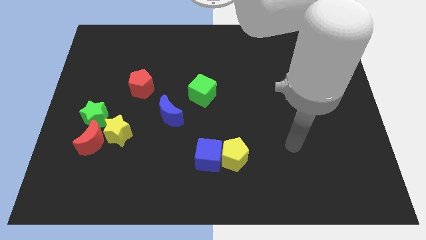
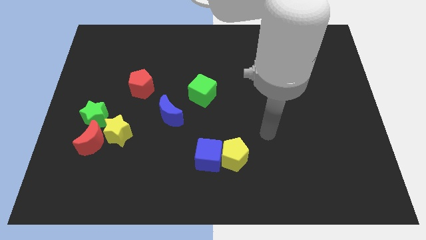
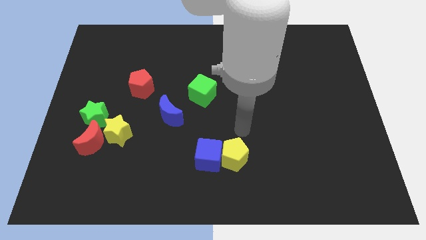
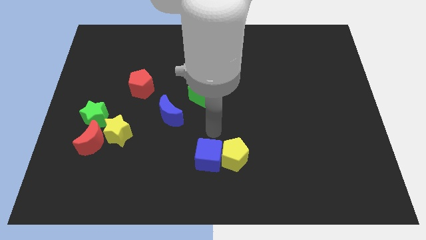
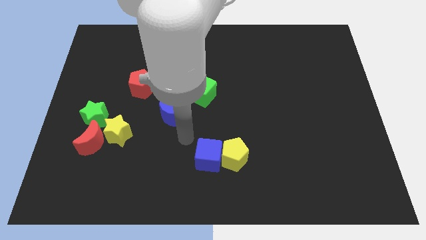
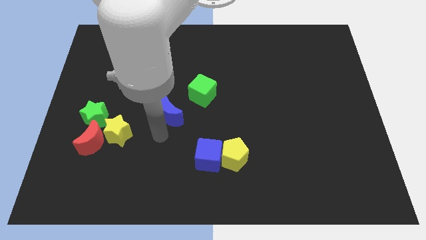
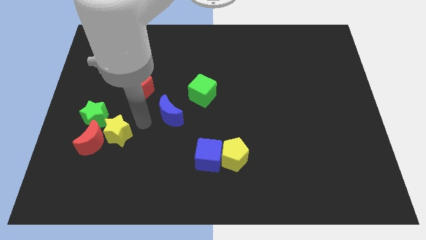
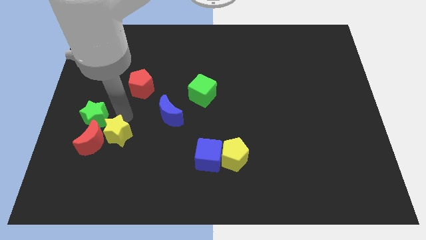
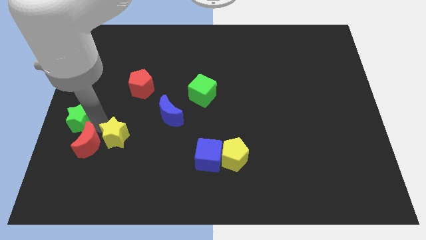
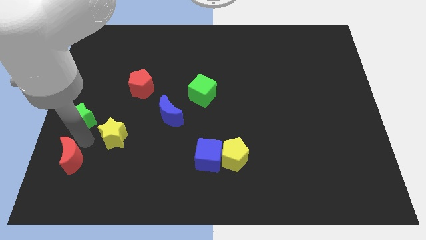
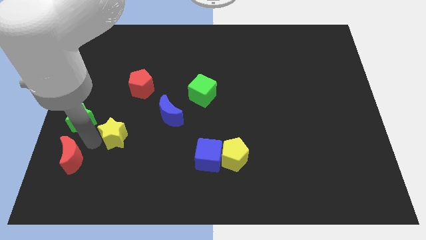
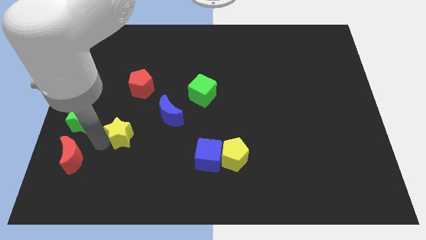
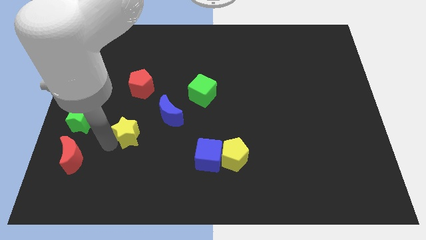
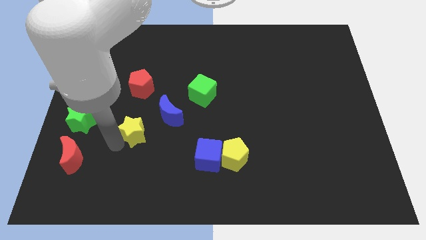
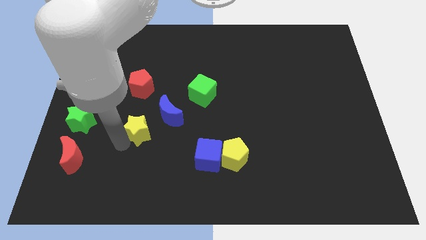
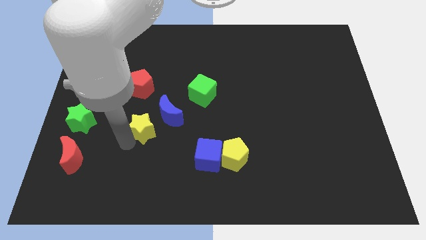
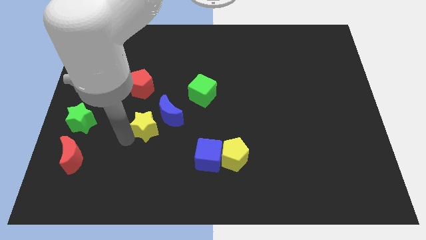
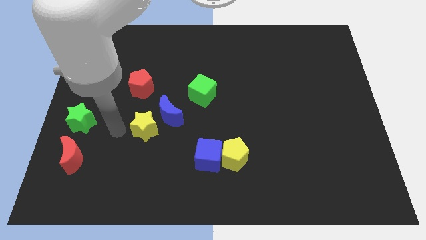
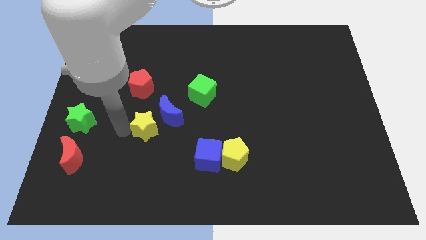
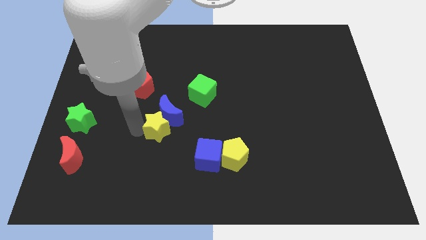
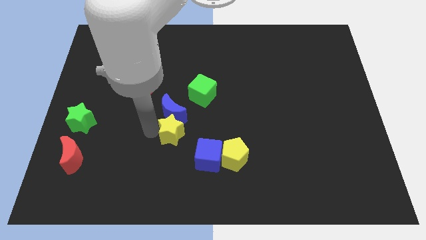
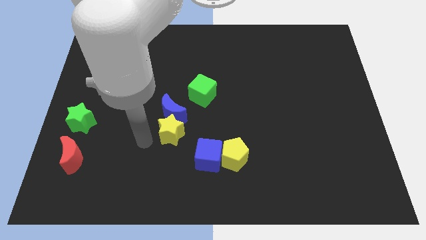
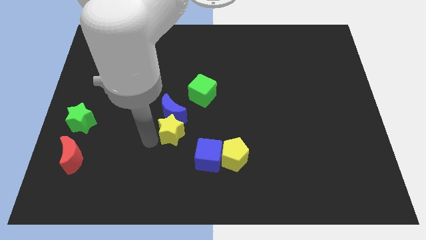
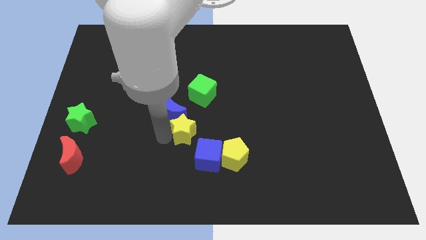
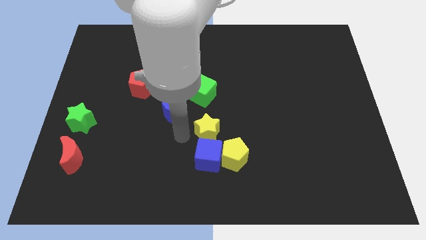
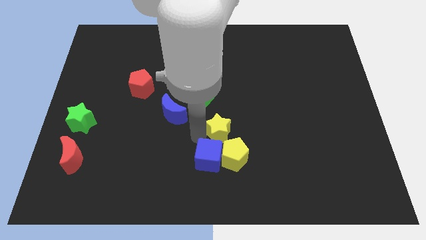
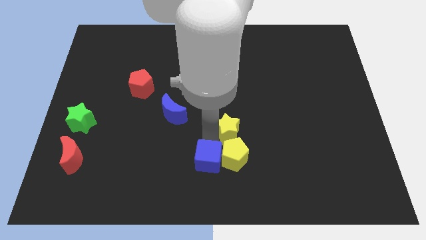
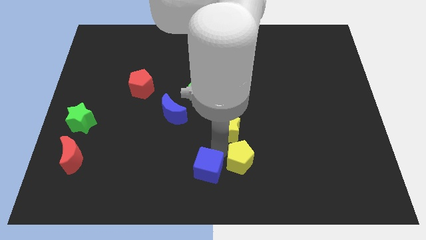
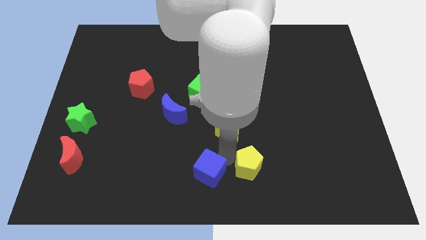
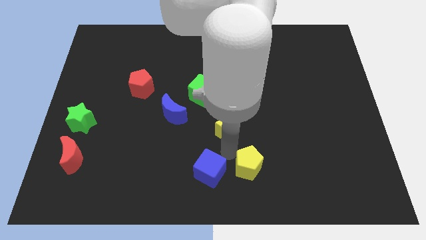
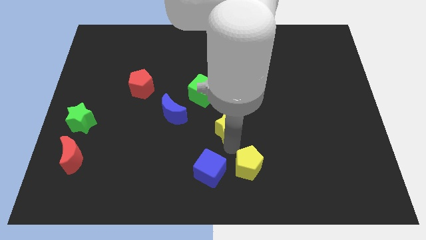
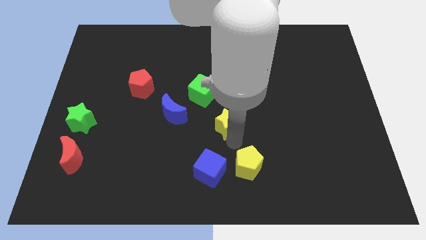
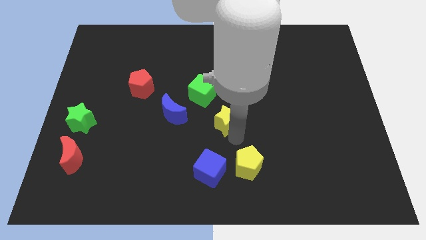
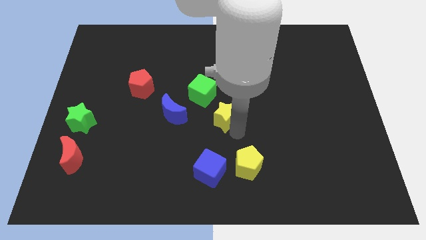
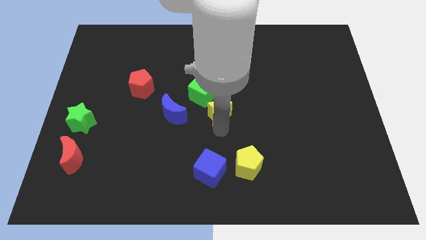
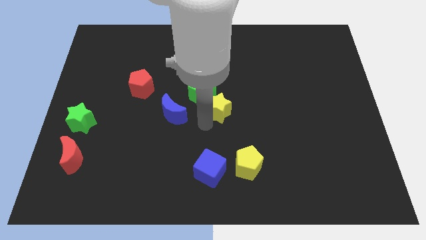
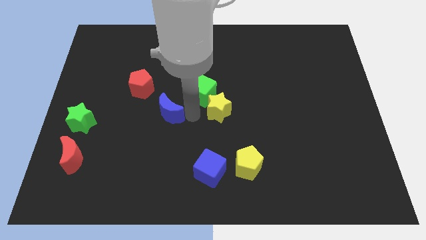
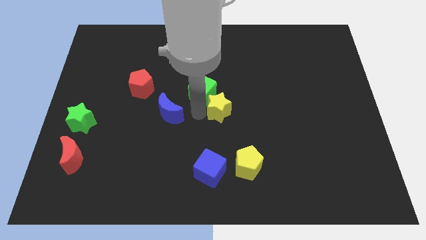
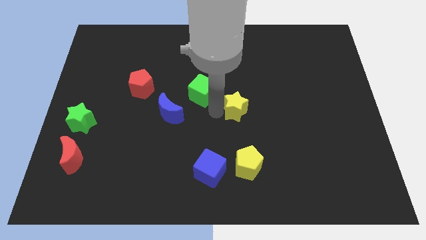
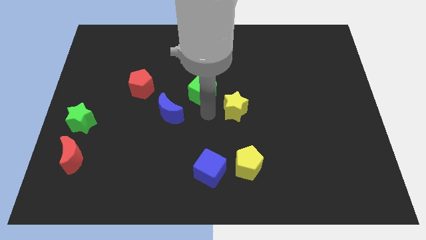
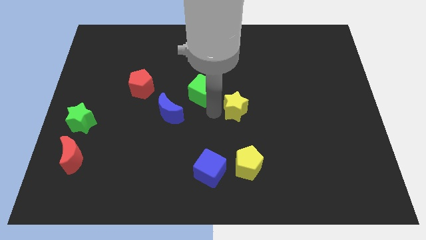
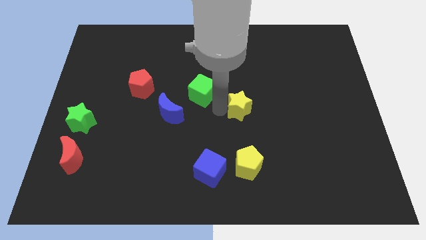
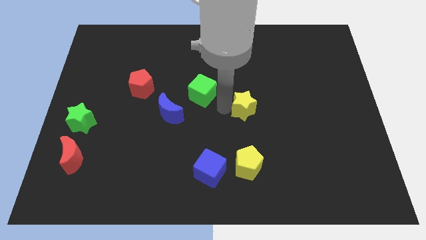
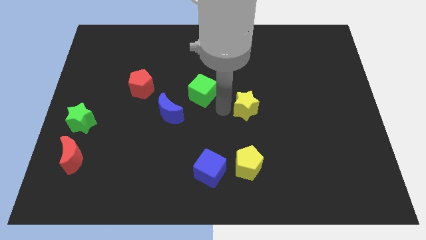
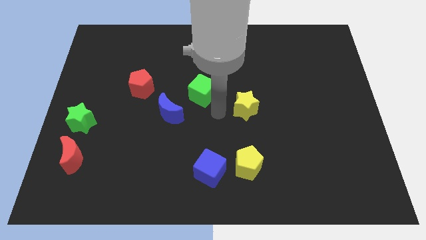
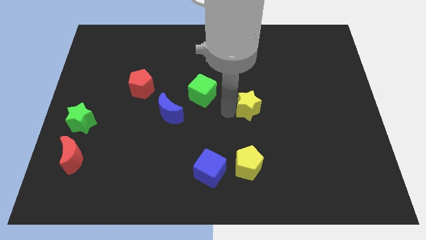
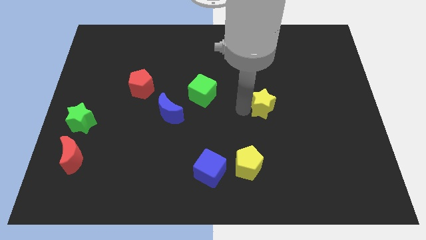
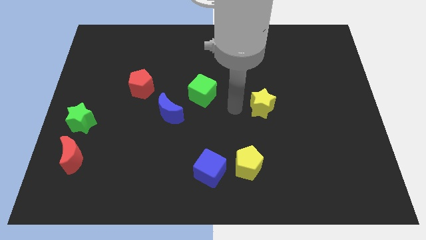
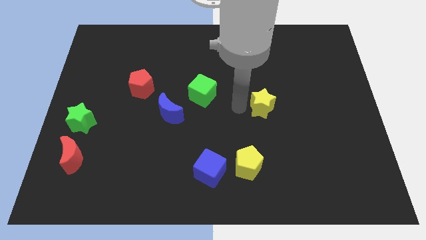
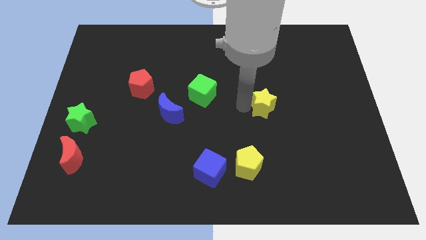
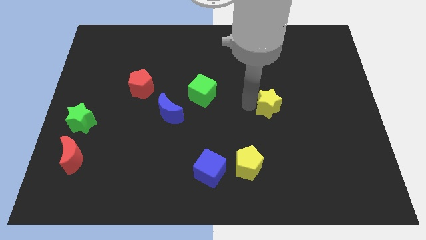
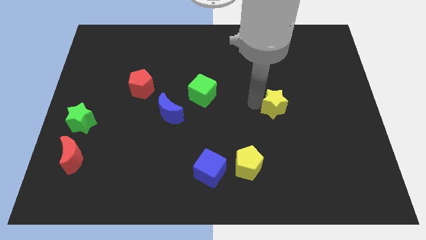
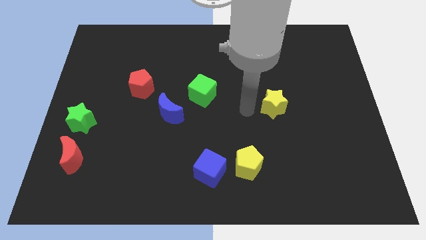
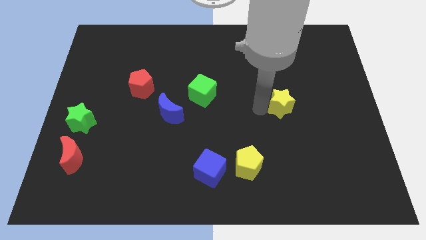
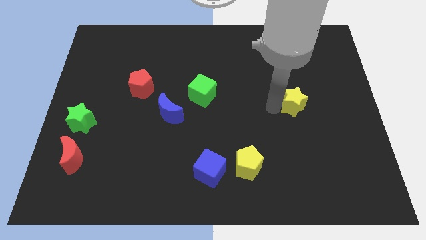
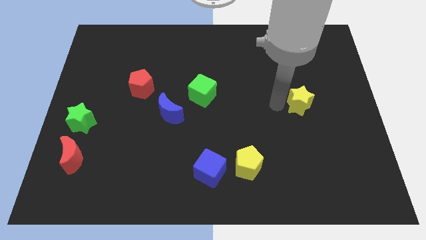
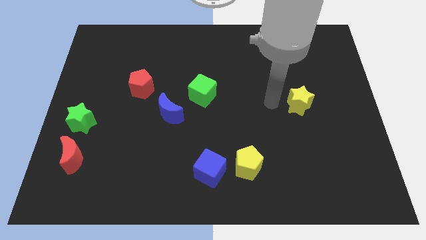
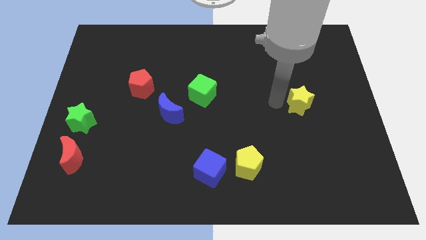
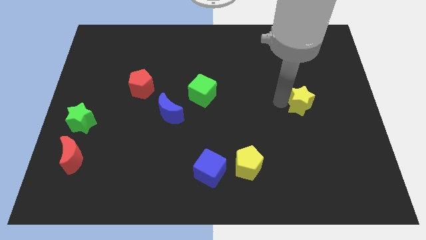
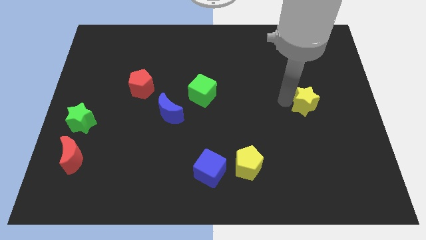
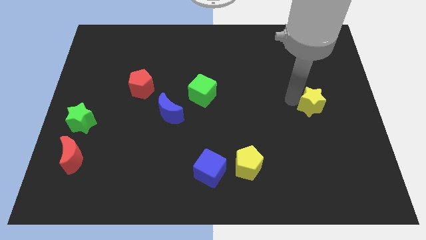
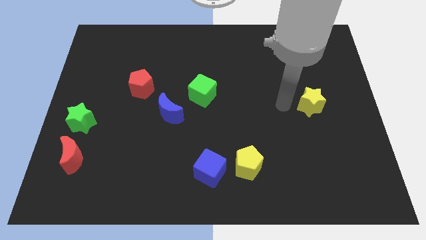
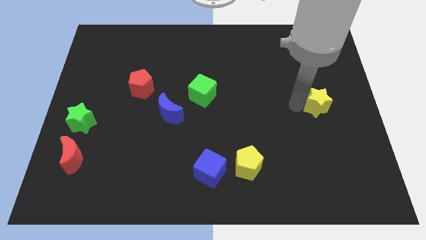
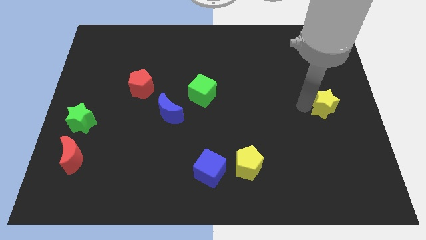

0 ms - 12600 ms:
slide the yellow star to the center right
